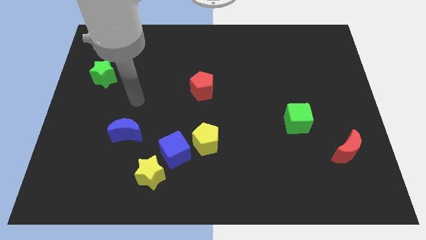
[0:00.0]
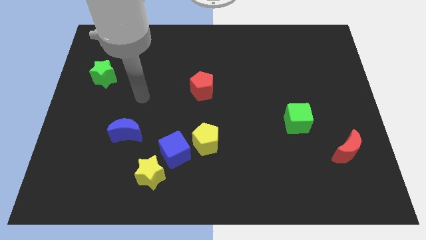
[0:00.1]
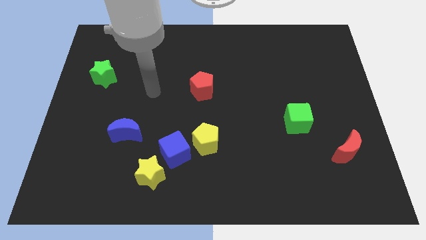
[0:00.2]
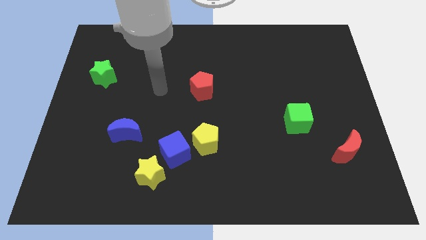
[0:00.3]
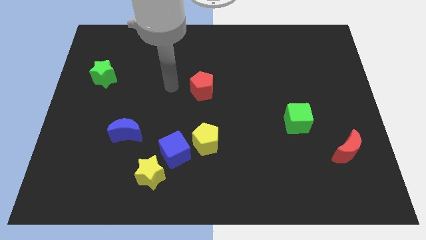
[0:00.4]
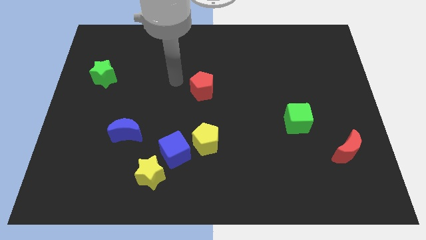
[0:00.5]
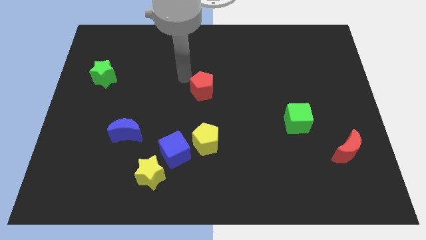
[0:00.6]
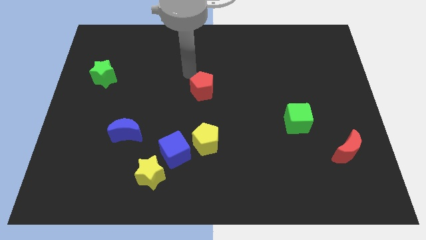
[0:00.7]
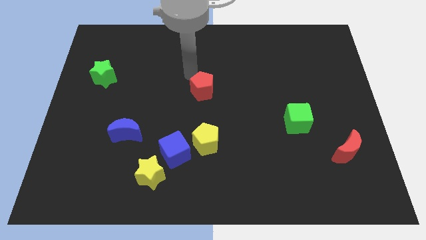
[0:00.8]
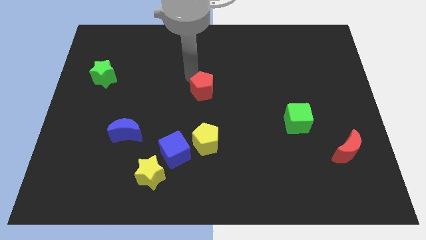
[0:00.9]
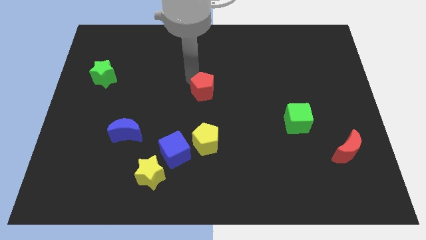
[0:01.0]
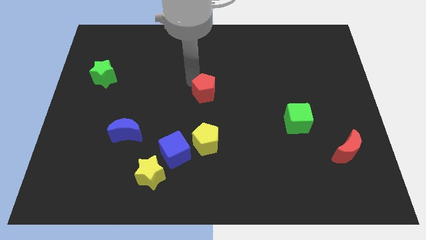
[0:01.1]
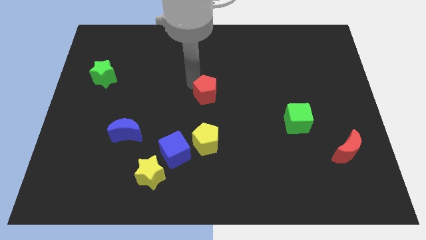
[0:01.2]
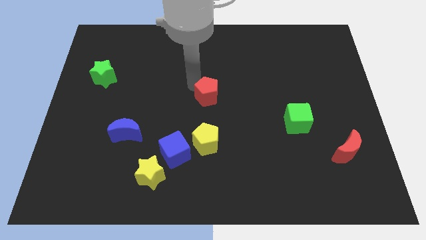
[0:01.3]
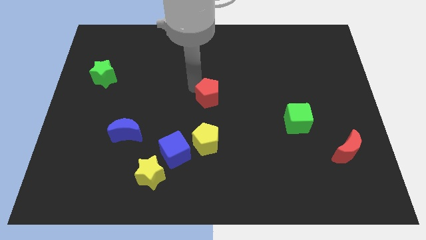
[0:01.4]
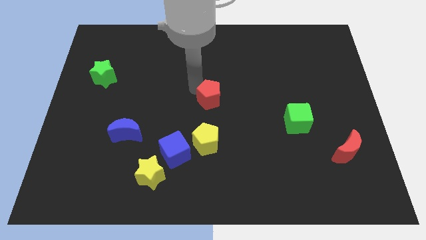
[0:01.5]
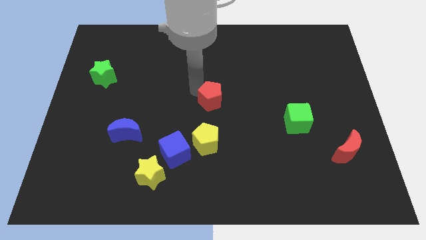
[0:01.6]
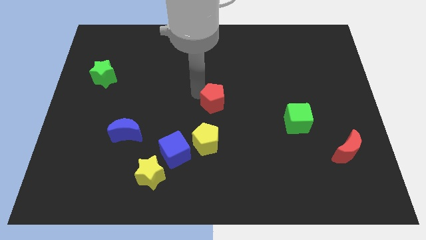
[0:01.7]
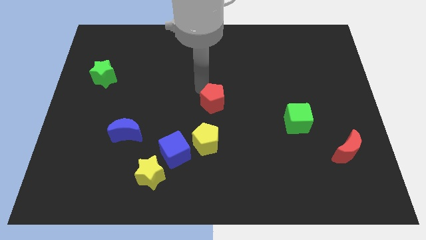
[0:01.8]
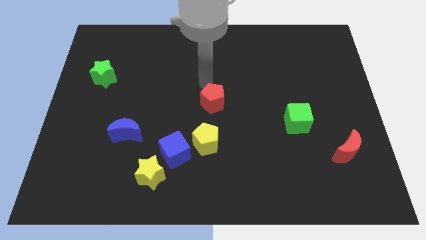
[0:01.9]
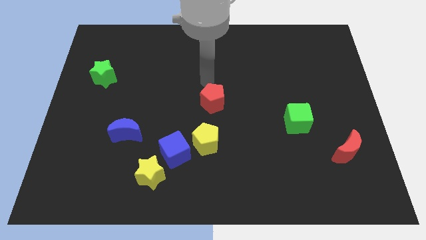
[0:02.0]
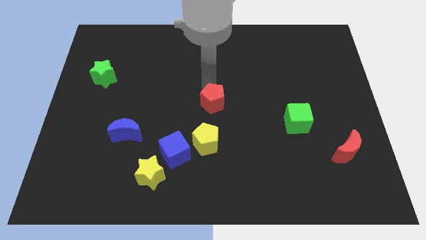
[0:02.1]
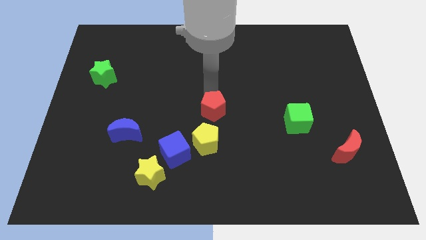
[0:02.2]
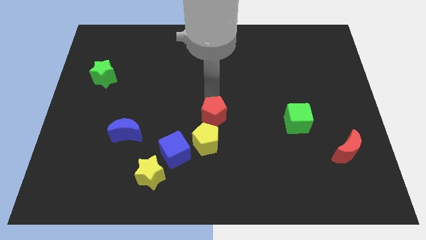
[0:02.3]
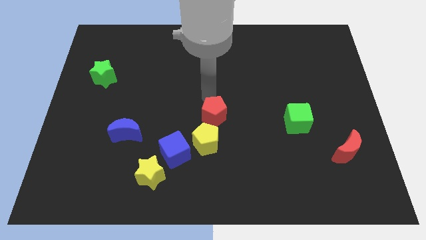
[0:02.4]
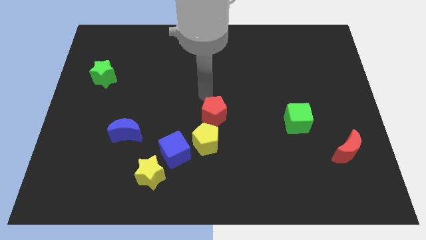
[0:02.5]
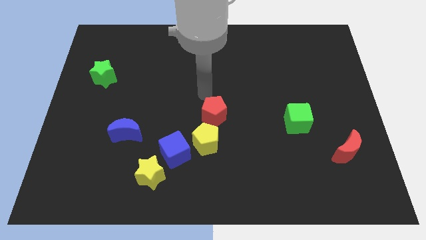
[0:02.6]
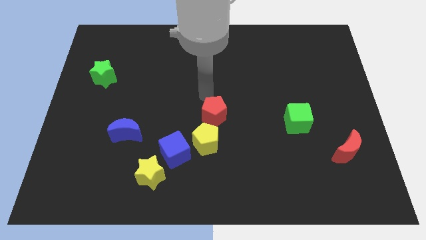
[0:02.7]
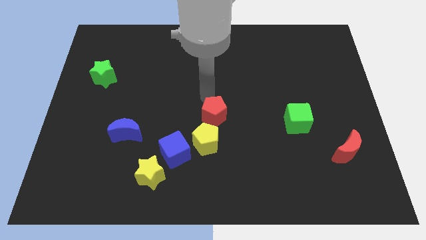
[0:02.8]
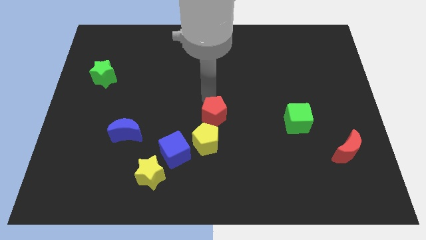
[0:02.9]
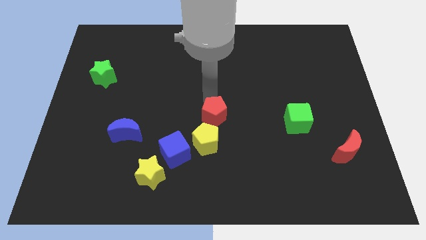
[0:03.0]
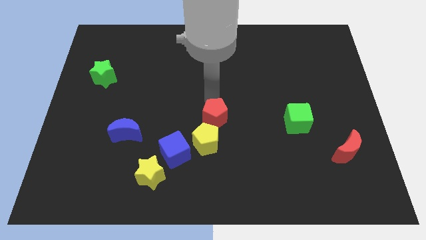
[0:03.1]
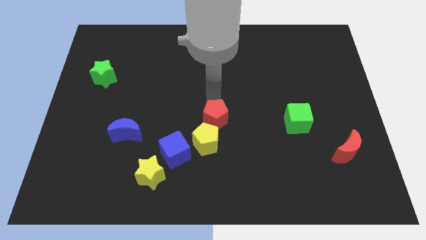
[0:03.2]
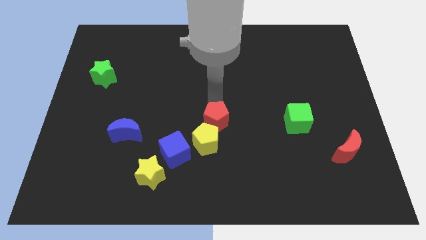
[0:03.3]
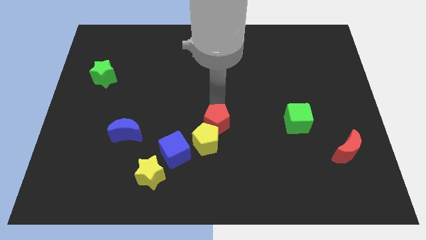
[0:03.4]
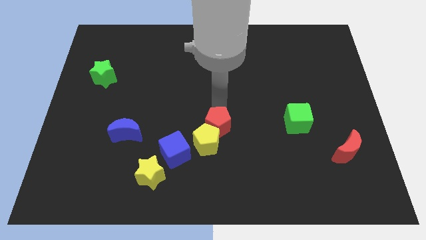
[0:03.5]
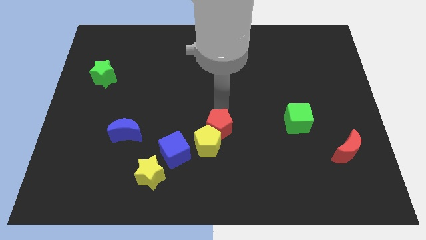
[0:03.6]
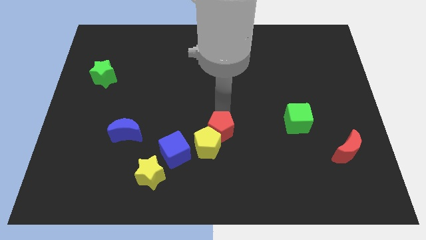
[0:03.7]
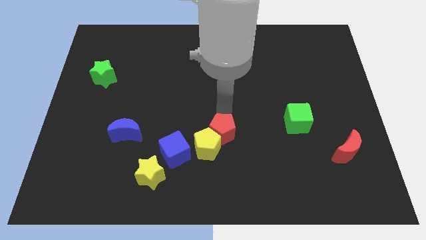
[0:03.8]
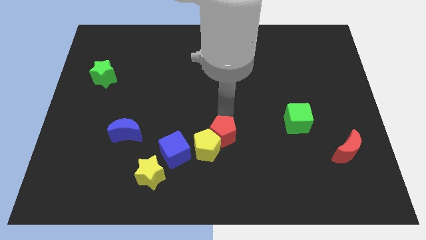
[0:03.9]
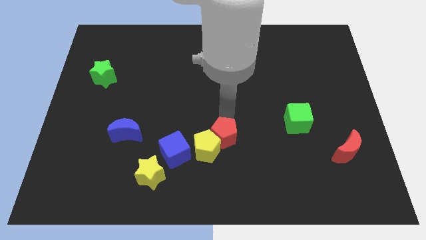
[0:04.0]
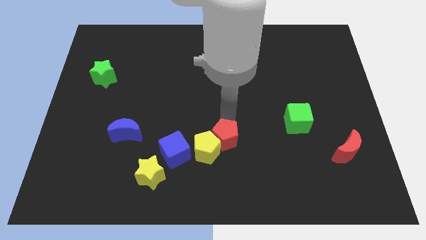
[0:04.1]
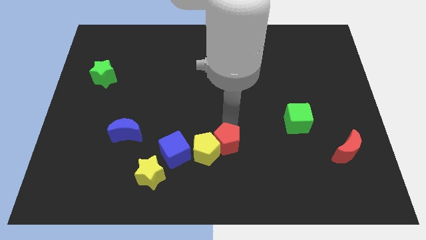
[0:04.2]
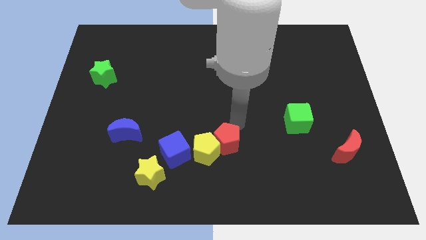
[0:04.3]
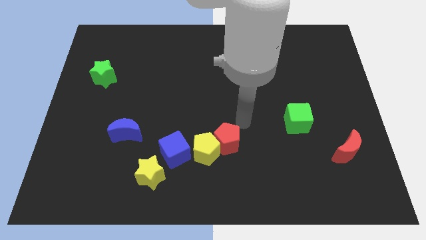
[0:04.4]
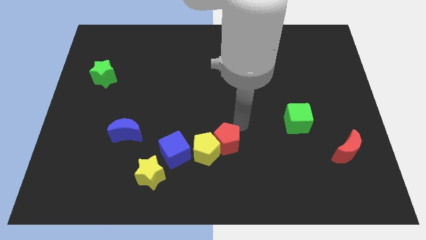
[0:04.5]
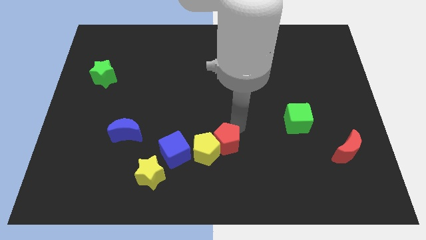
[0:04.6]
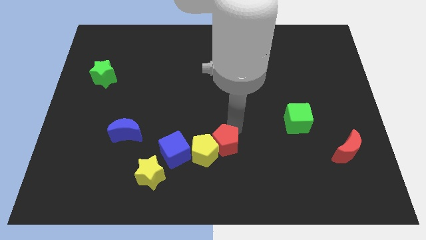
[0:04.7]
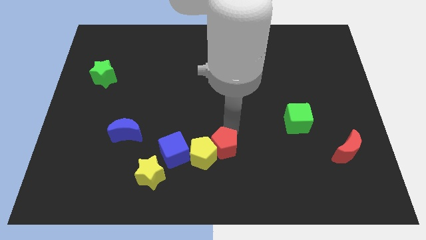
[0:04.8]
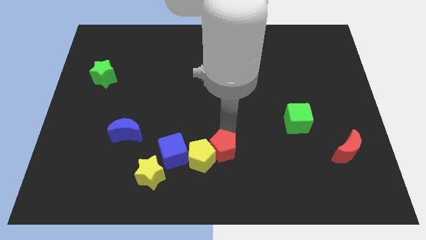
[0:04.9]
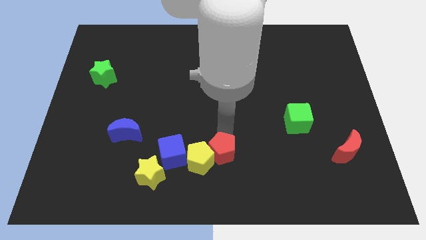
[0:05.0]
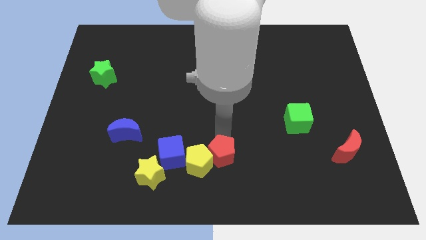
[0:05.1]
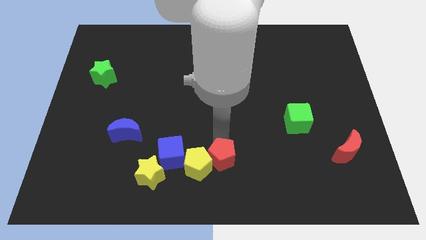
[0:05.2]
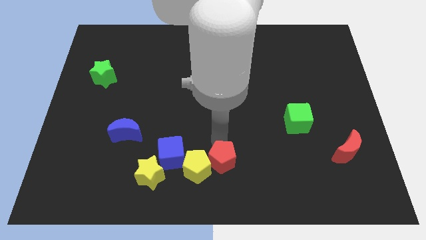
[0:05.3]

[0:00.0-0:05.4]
push the red pentagon to the right side of the yellow star

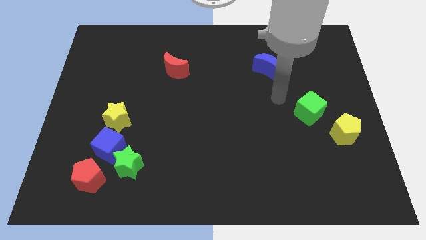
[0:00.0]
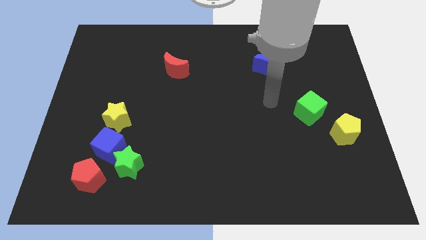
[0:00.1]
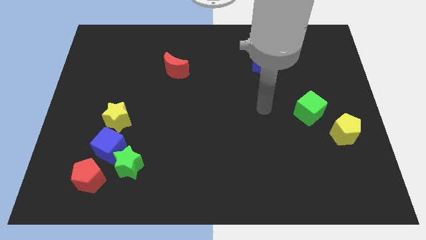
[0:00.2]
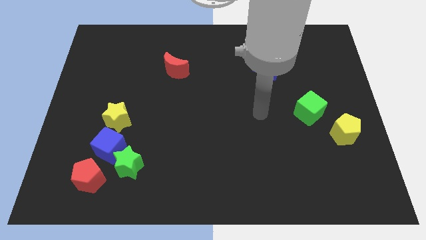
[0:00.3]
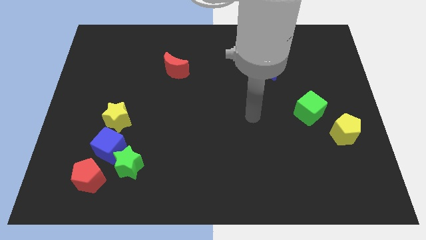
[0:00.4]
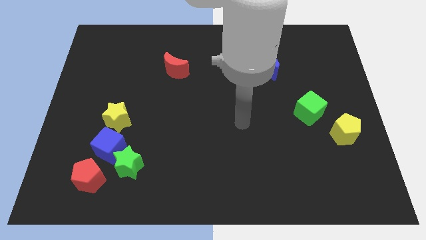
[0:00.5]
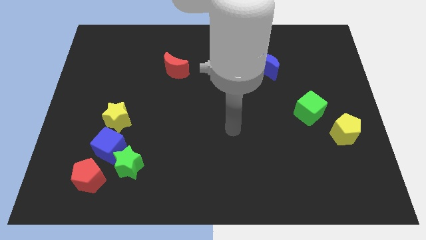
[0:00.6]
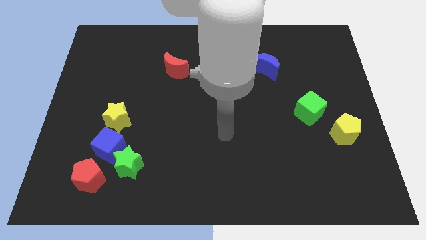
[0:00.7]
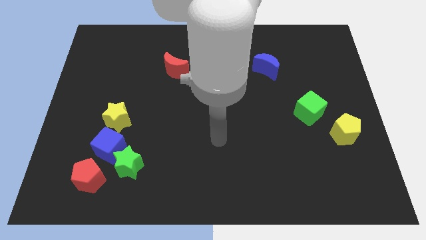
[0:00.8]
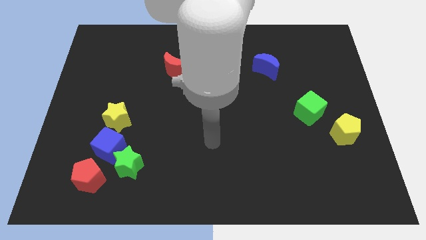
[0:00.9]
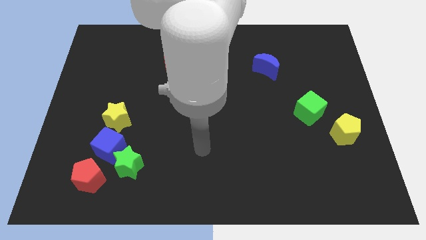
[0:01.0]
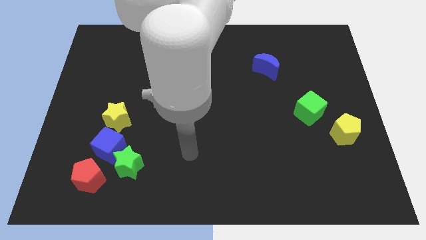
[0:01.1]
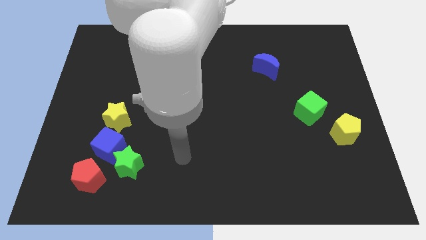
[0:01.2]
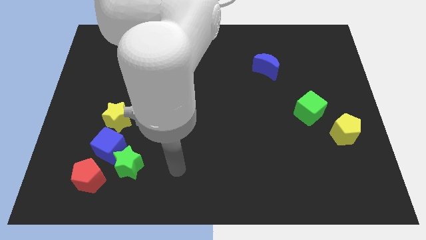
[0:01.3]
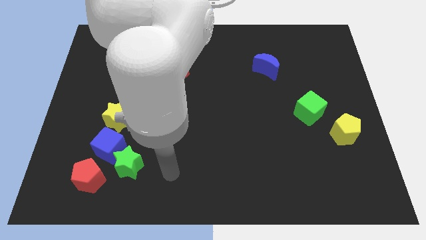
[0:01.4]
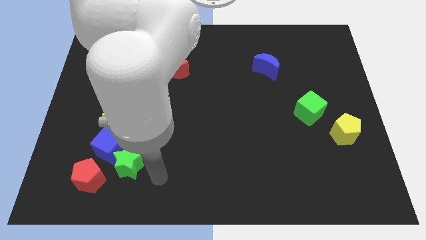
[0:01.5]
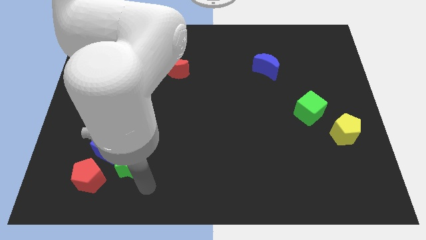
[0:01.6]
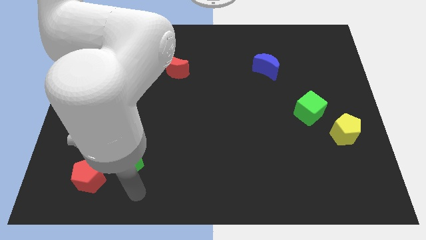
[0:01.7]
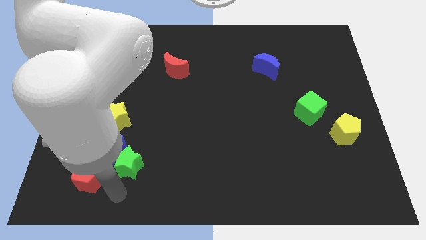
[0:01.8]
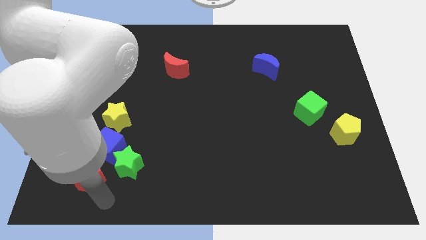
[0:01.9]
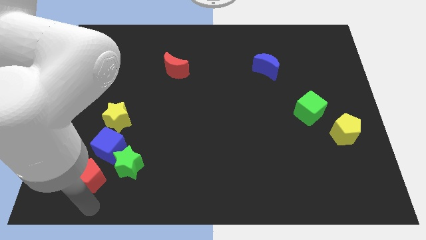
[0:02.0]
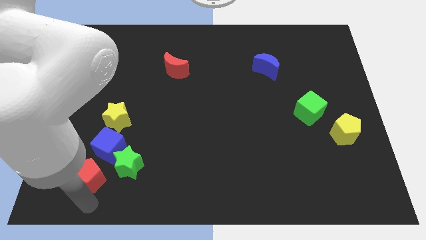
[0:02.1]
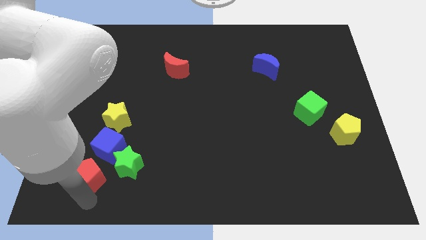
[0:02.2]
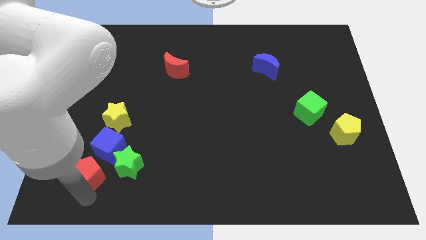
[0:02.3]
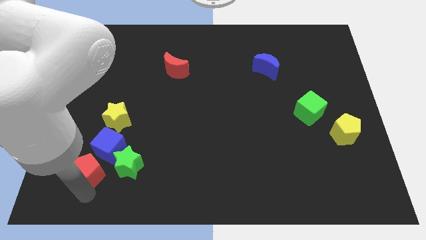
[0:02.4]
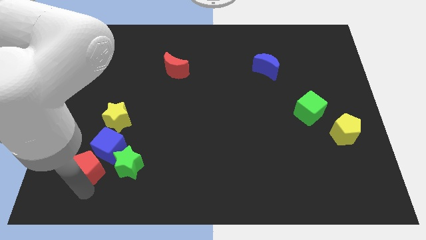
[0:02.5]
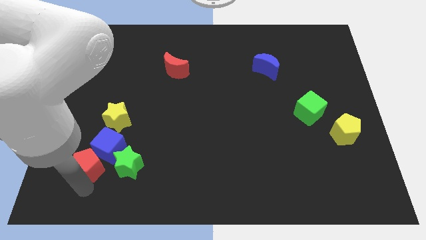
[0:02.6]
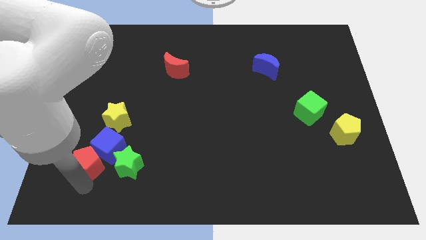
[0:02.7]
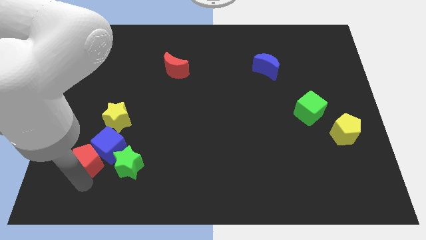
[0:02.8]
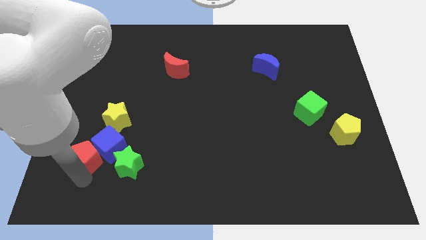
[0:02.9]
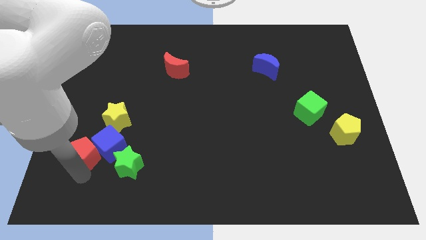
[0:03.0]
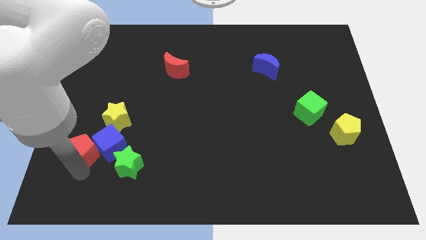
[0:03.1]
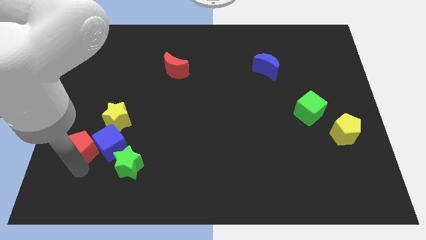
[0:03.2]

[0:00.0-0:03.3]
put the red pentagon to the top left of the blue cube
